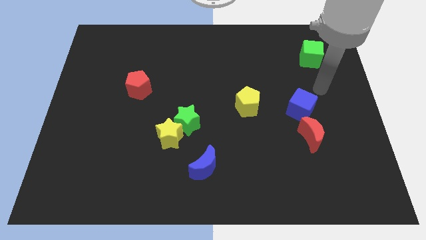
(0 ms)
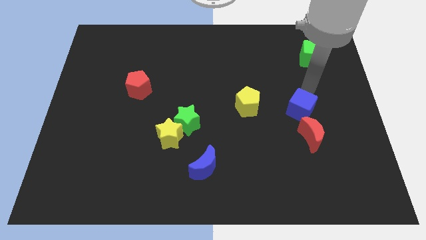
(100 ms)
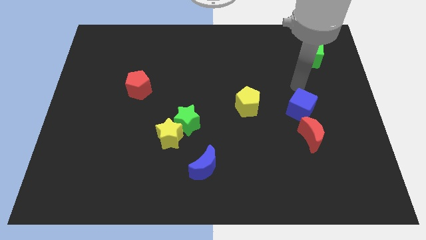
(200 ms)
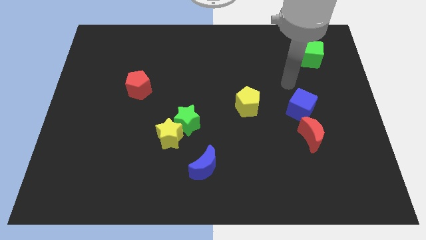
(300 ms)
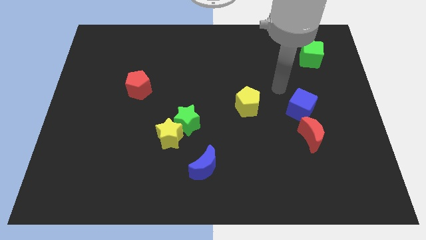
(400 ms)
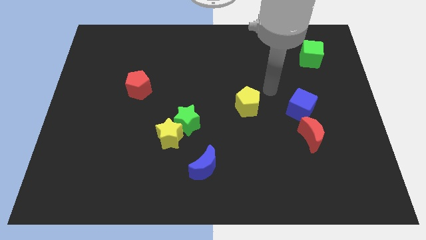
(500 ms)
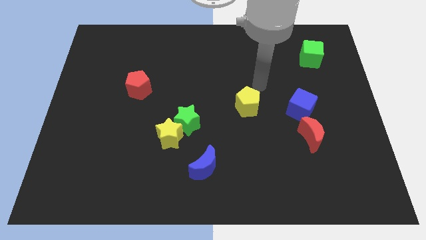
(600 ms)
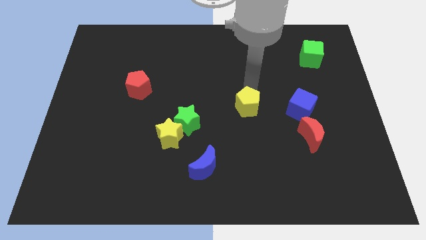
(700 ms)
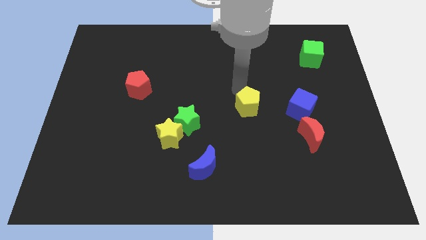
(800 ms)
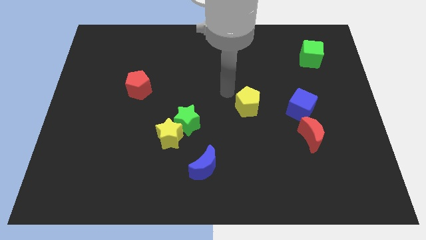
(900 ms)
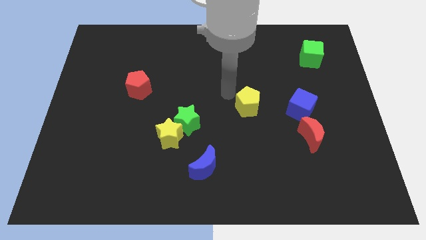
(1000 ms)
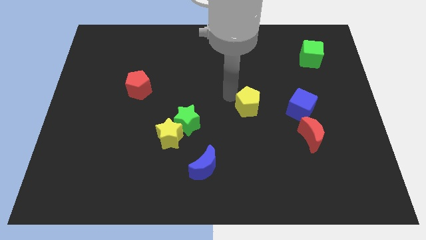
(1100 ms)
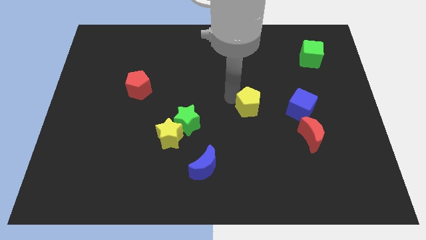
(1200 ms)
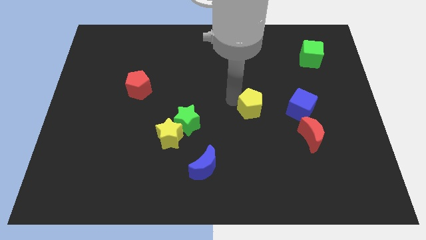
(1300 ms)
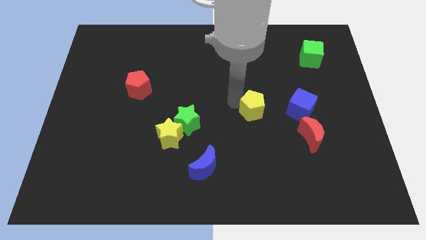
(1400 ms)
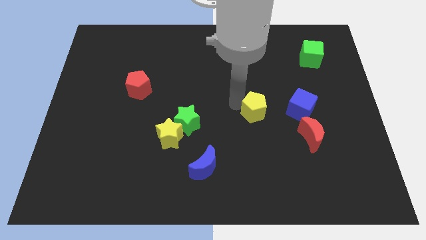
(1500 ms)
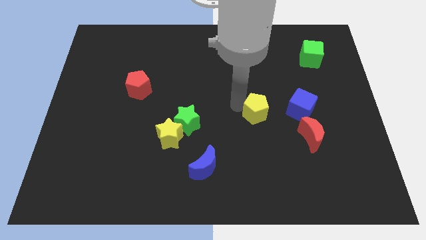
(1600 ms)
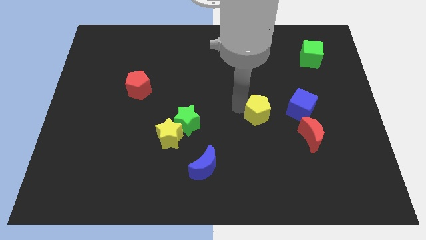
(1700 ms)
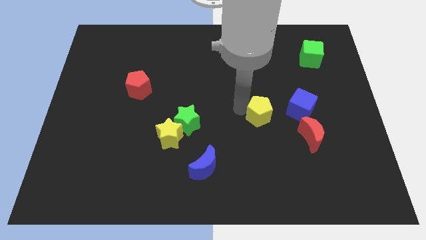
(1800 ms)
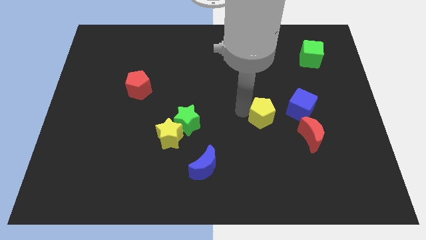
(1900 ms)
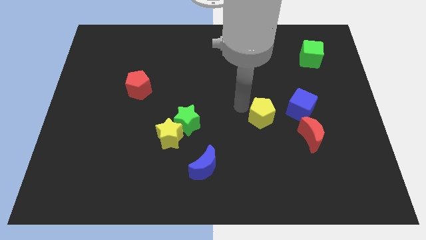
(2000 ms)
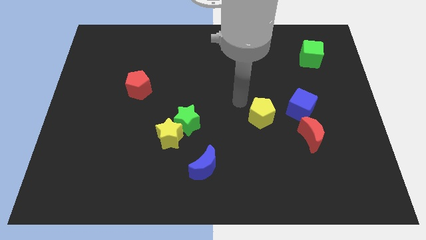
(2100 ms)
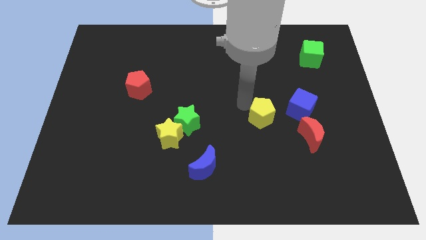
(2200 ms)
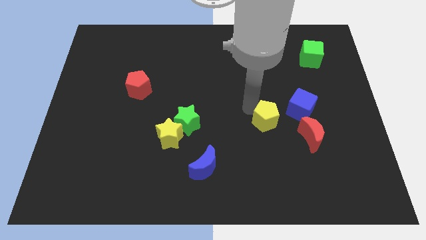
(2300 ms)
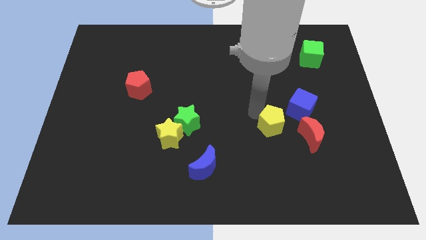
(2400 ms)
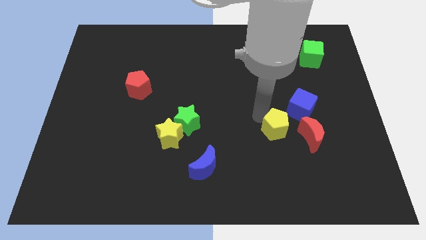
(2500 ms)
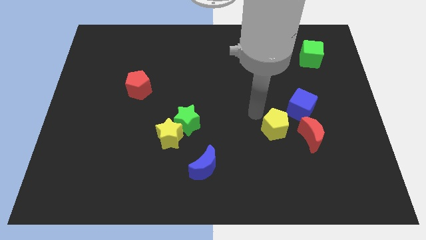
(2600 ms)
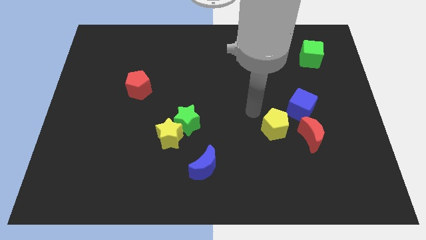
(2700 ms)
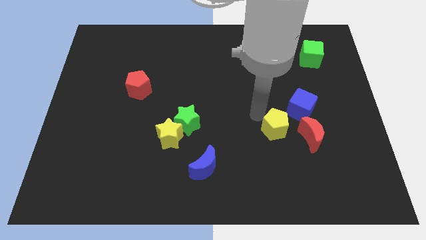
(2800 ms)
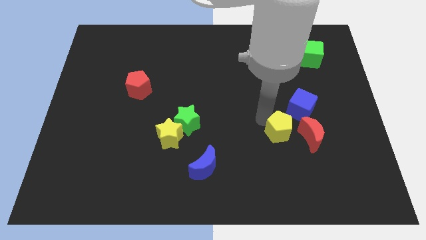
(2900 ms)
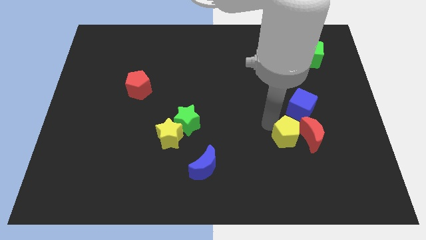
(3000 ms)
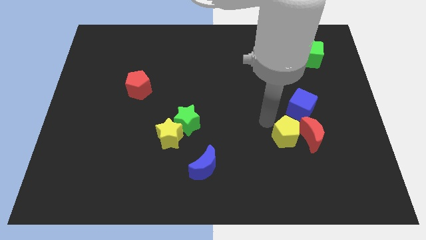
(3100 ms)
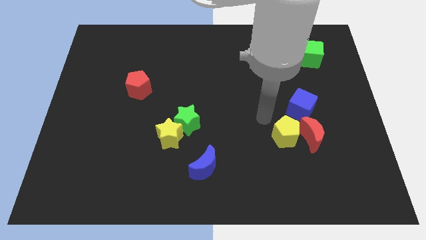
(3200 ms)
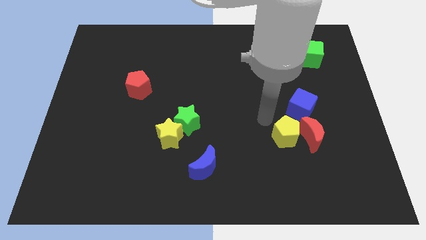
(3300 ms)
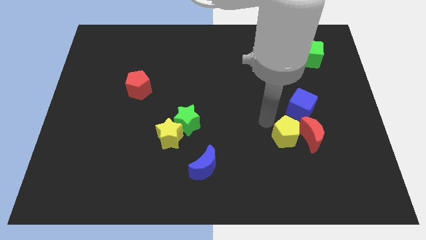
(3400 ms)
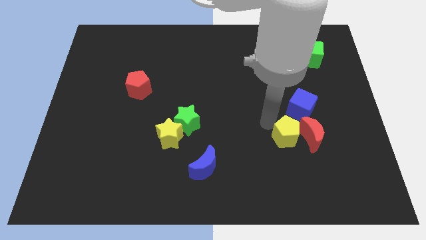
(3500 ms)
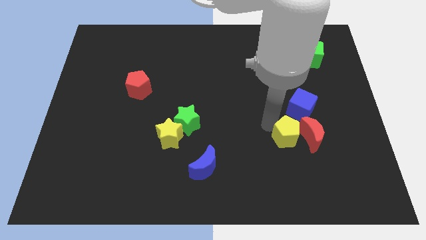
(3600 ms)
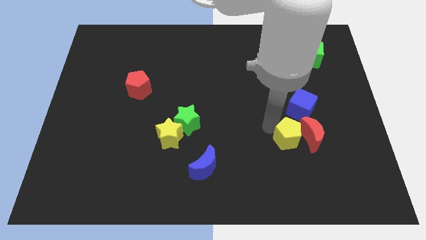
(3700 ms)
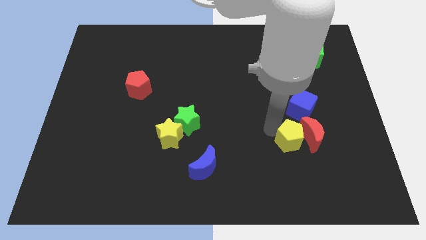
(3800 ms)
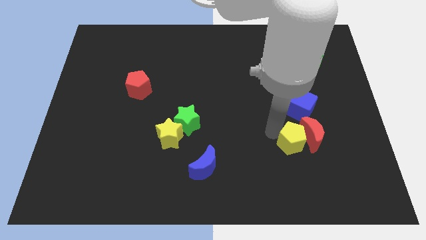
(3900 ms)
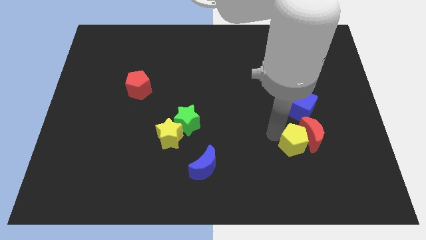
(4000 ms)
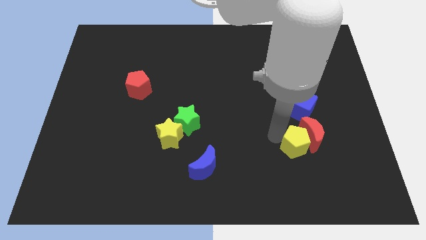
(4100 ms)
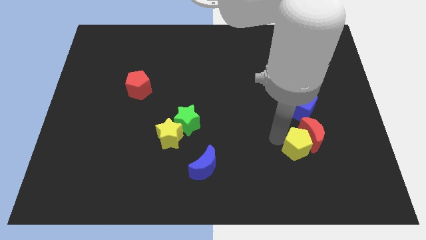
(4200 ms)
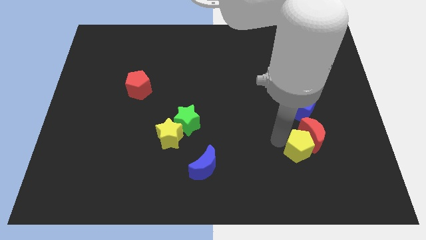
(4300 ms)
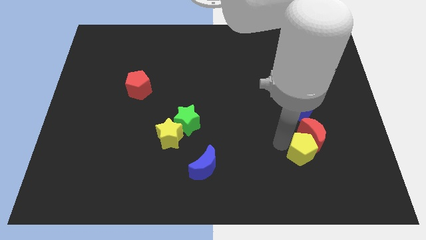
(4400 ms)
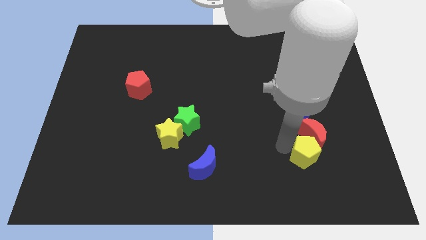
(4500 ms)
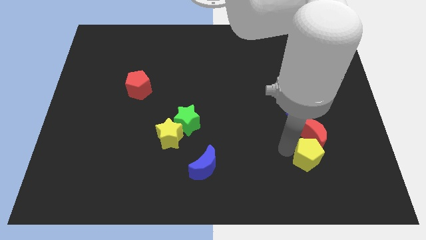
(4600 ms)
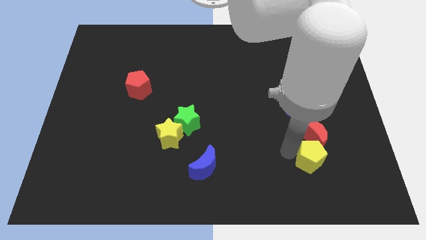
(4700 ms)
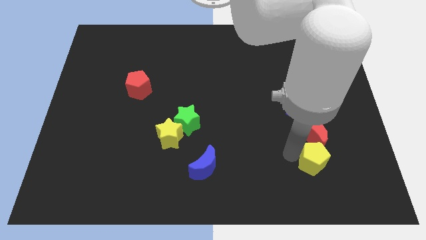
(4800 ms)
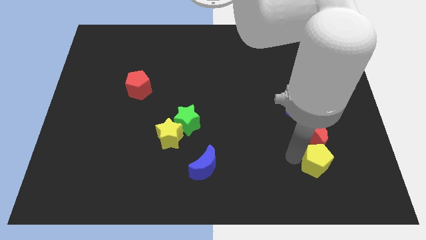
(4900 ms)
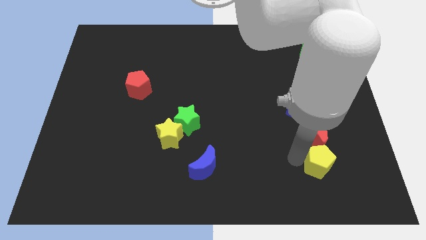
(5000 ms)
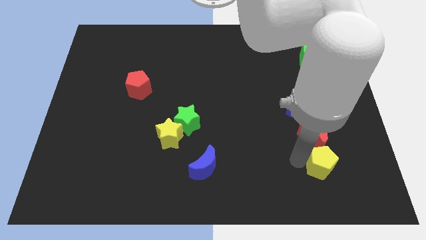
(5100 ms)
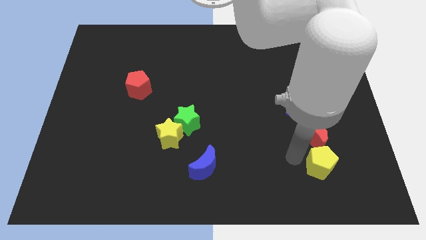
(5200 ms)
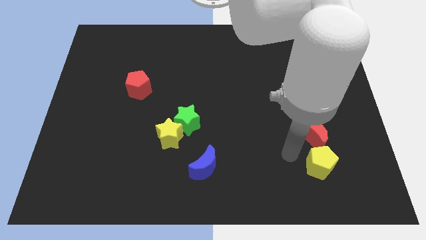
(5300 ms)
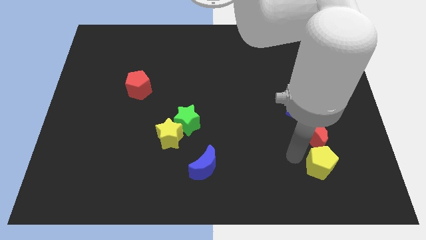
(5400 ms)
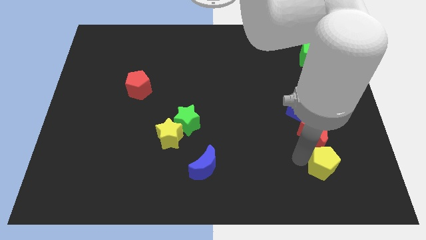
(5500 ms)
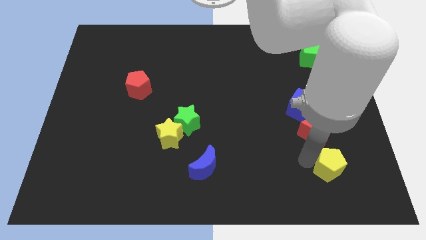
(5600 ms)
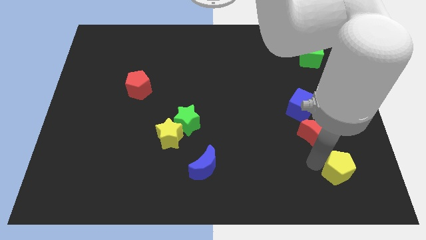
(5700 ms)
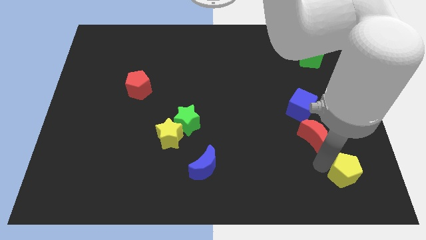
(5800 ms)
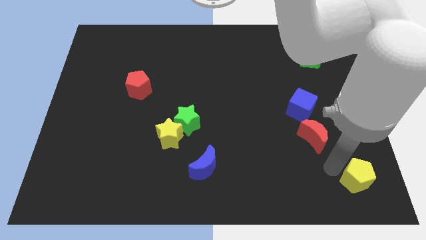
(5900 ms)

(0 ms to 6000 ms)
move the yellow pentagon to the bottom right corner
